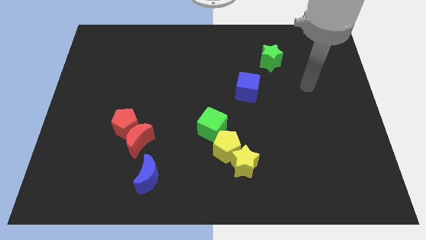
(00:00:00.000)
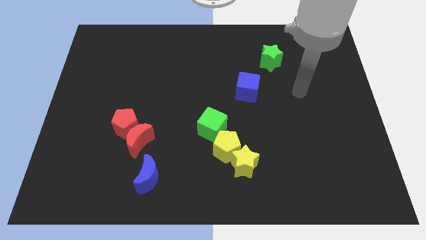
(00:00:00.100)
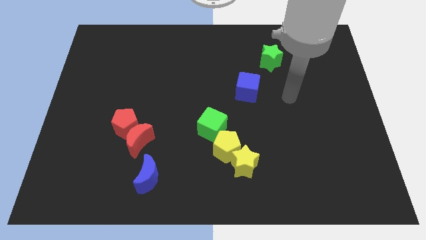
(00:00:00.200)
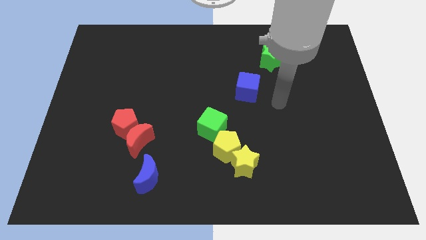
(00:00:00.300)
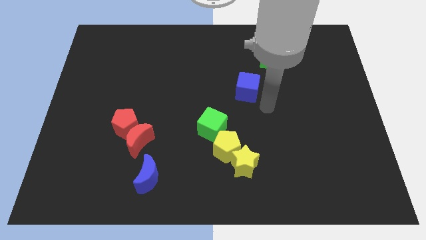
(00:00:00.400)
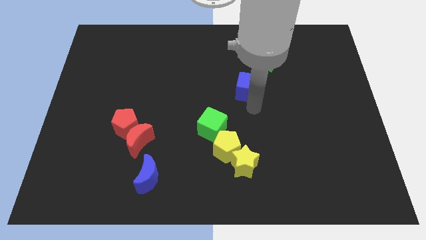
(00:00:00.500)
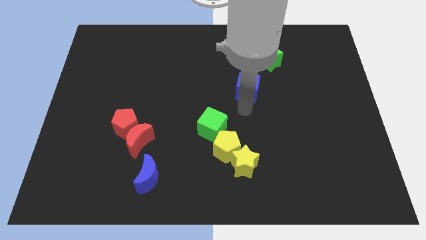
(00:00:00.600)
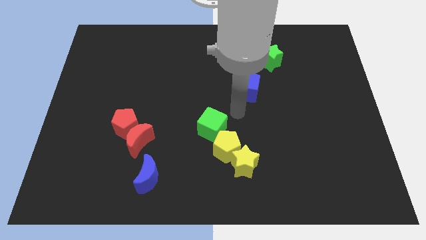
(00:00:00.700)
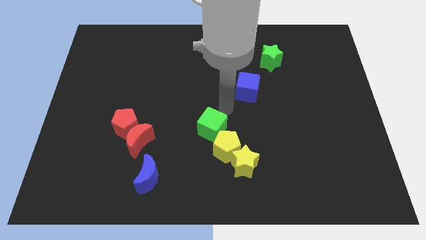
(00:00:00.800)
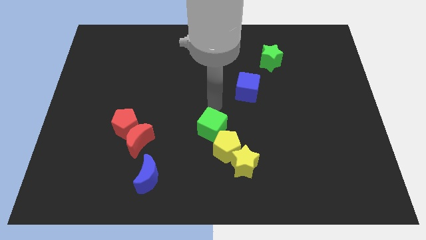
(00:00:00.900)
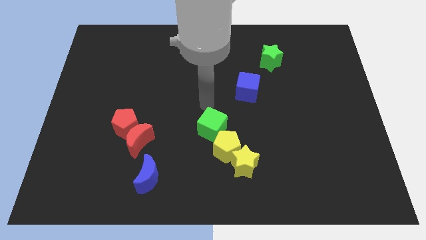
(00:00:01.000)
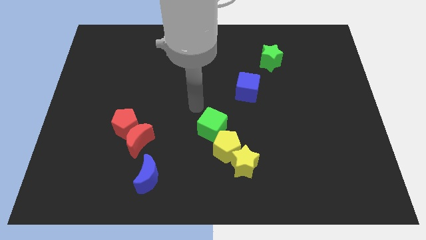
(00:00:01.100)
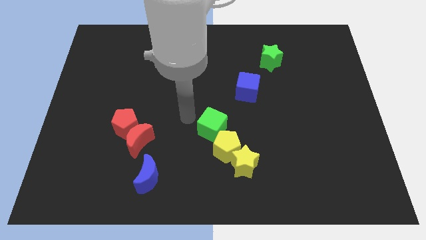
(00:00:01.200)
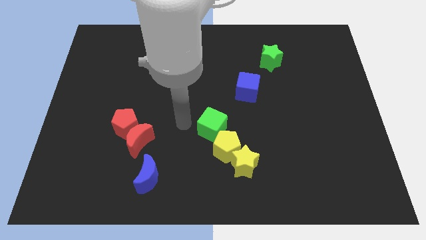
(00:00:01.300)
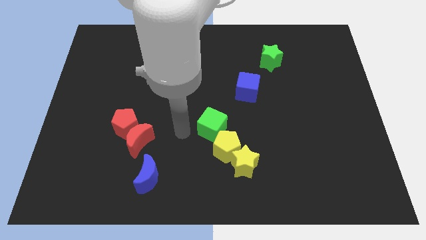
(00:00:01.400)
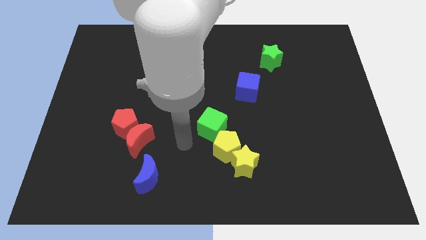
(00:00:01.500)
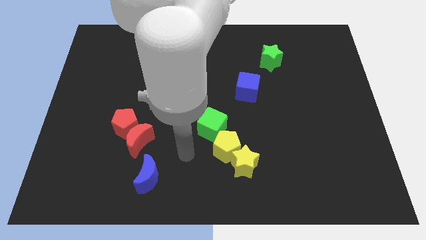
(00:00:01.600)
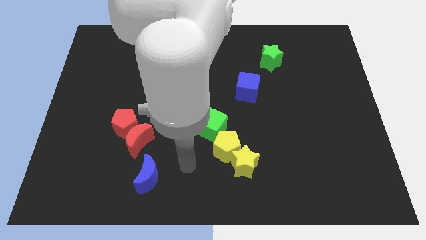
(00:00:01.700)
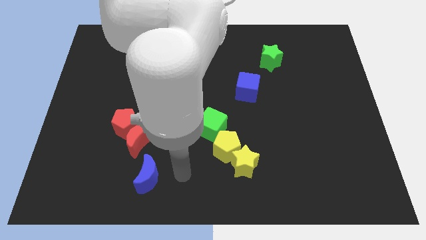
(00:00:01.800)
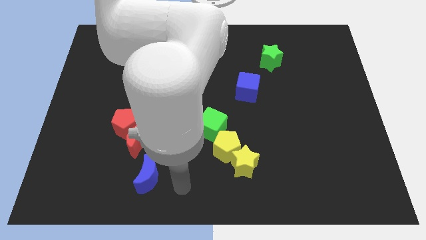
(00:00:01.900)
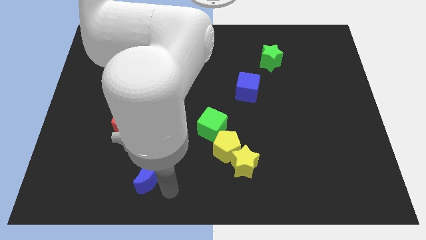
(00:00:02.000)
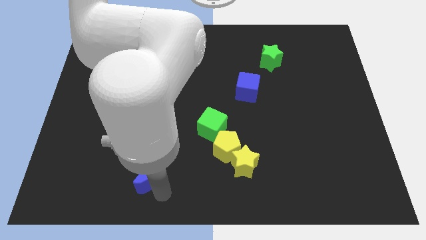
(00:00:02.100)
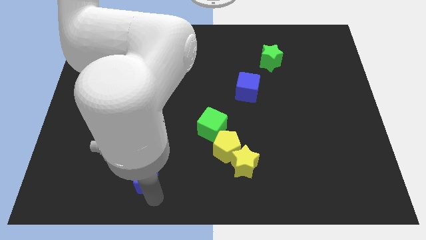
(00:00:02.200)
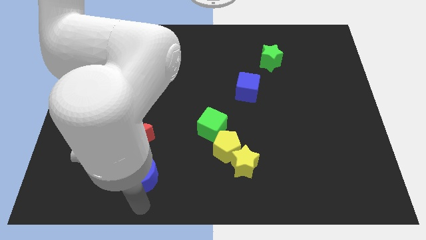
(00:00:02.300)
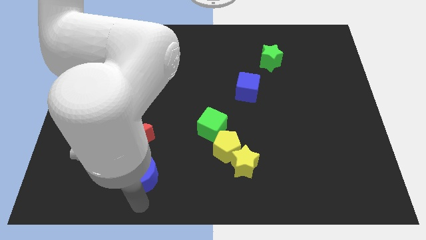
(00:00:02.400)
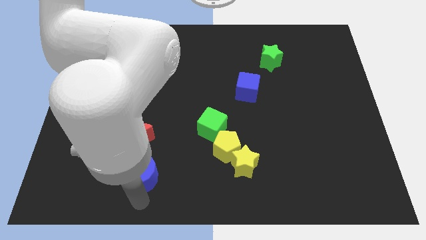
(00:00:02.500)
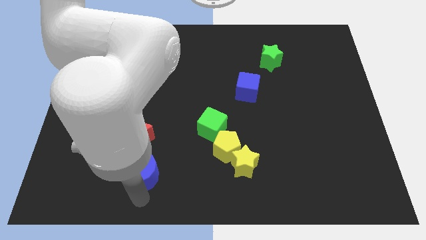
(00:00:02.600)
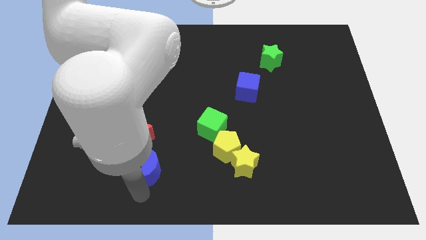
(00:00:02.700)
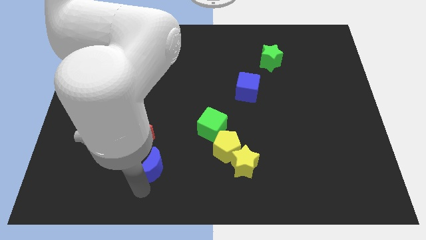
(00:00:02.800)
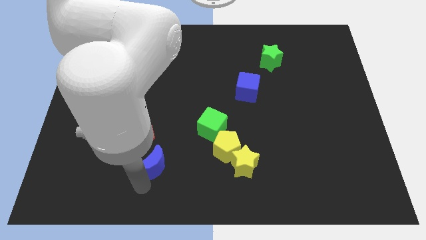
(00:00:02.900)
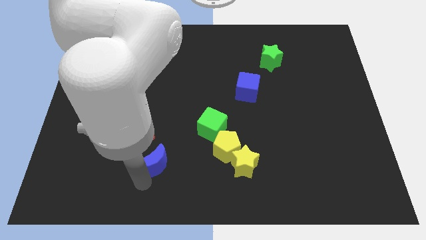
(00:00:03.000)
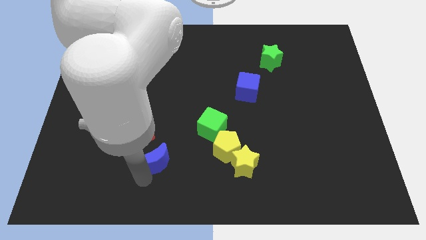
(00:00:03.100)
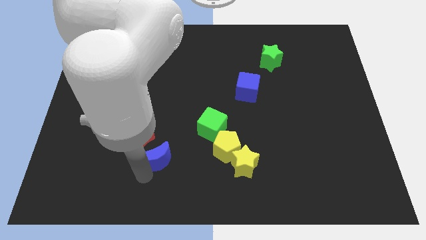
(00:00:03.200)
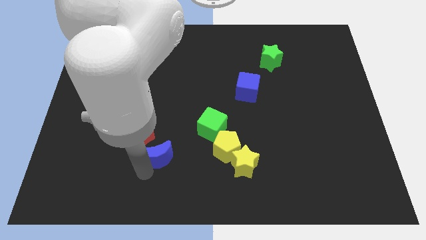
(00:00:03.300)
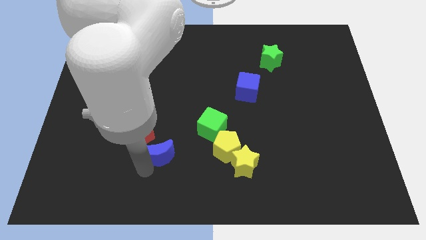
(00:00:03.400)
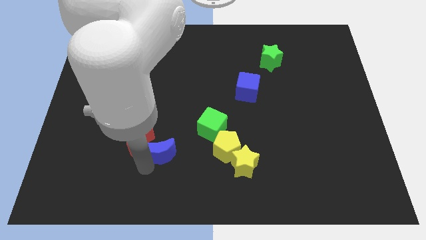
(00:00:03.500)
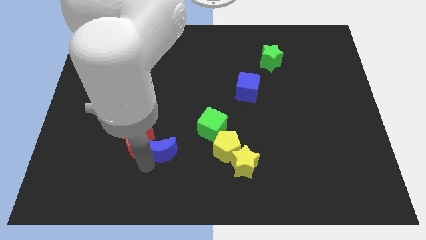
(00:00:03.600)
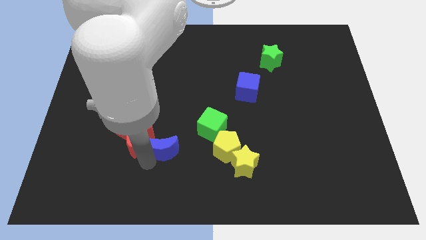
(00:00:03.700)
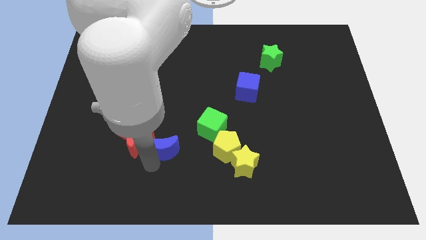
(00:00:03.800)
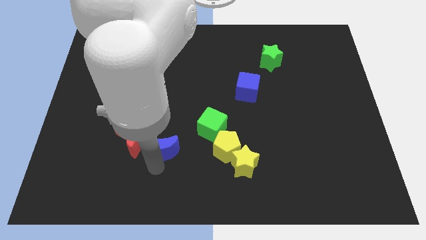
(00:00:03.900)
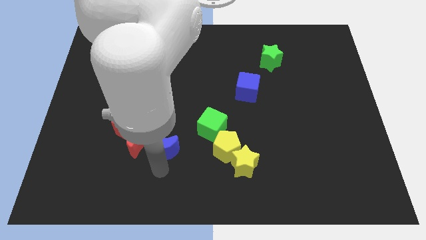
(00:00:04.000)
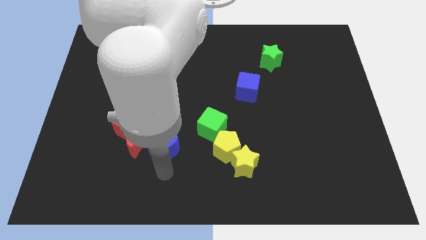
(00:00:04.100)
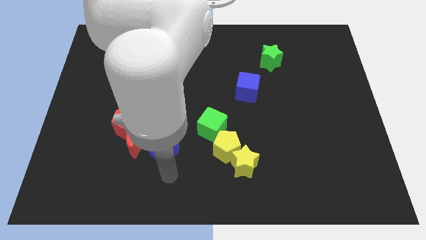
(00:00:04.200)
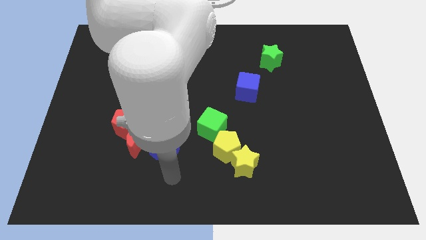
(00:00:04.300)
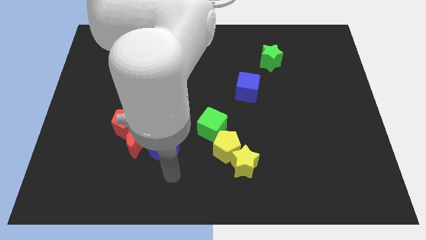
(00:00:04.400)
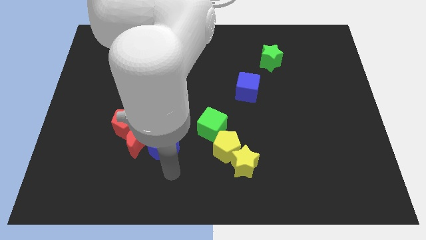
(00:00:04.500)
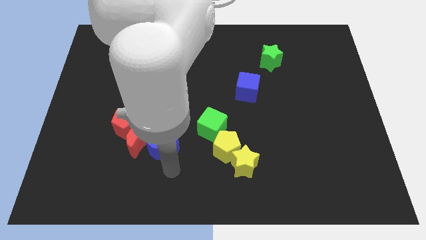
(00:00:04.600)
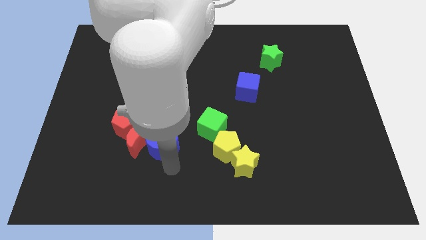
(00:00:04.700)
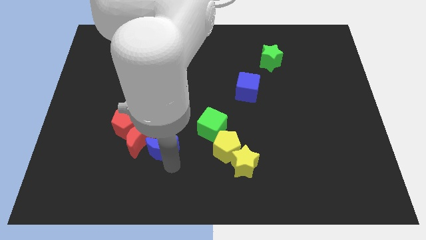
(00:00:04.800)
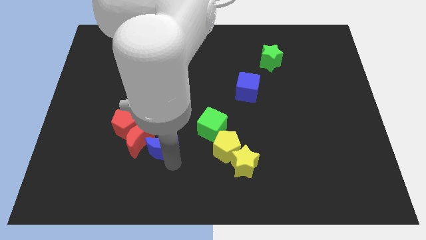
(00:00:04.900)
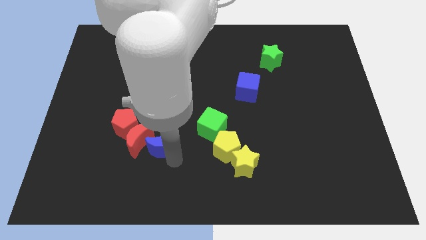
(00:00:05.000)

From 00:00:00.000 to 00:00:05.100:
push the blue moon somewhat up

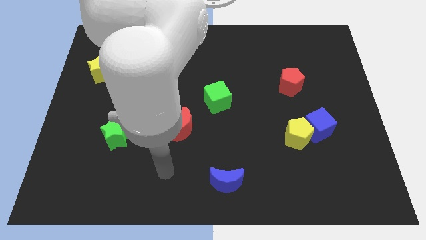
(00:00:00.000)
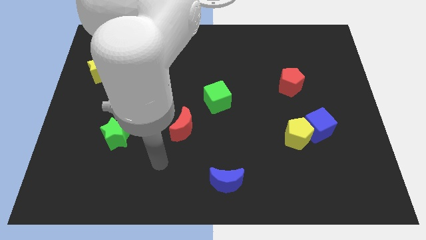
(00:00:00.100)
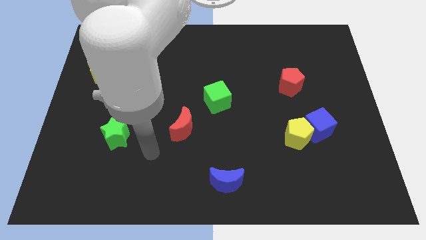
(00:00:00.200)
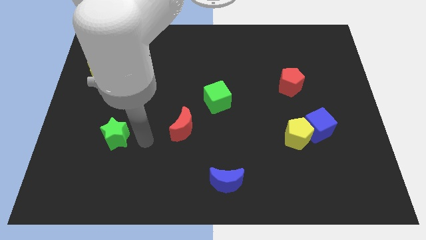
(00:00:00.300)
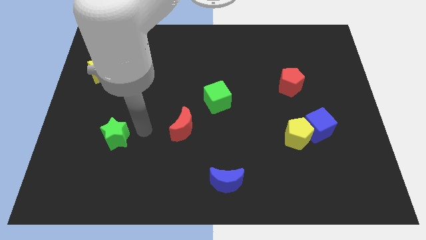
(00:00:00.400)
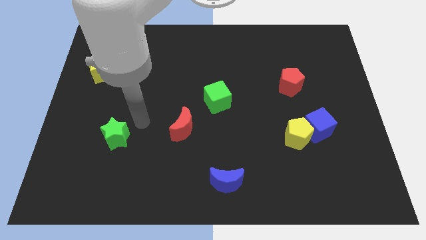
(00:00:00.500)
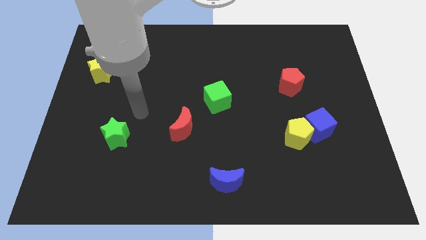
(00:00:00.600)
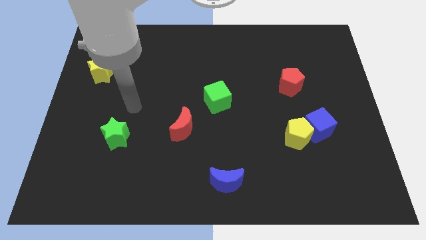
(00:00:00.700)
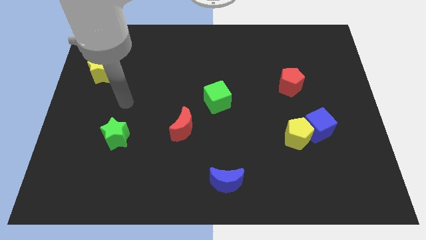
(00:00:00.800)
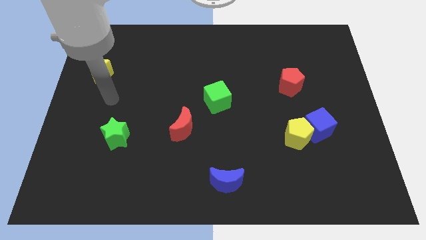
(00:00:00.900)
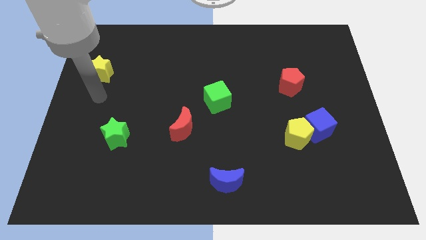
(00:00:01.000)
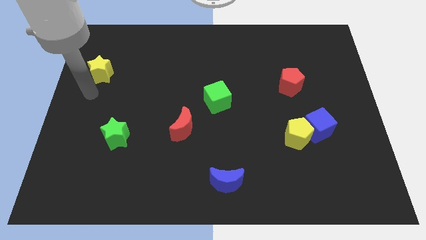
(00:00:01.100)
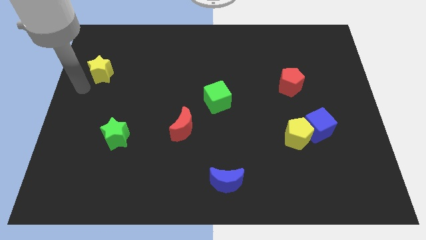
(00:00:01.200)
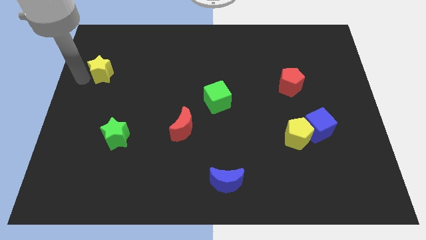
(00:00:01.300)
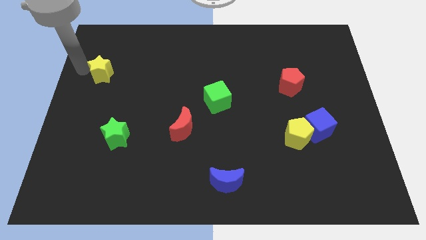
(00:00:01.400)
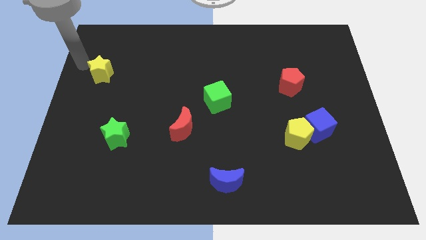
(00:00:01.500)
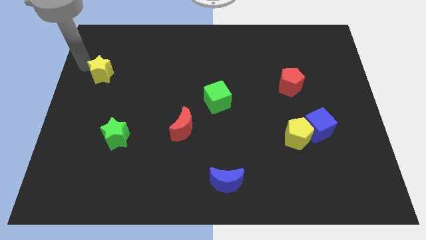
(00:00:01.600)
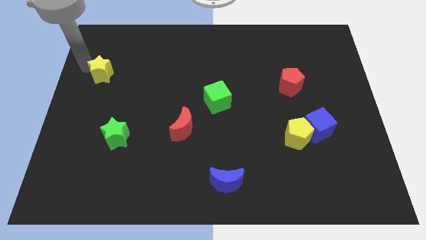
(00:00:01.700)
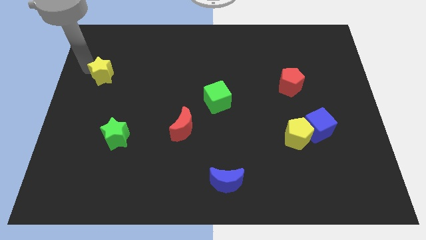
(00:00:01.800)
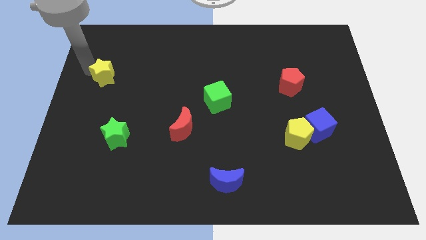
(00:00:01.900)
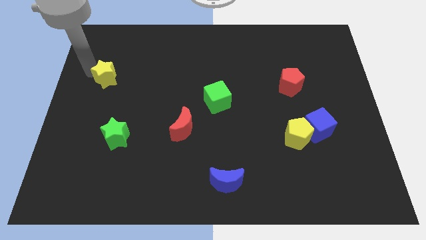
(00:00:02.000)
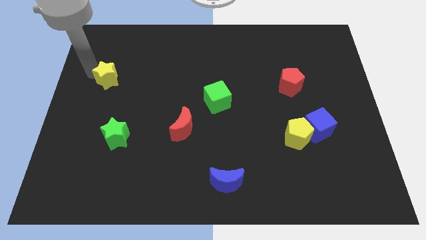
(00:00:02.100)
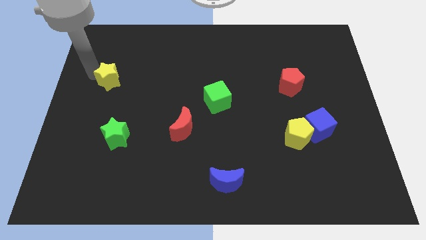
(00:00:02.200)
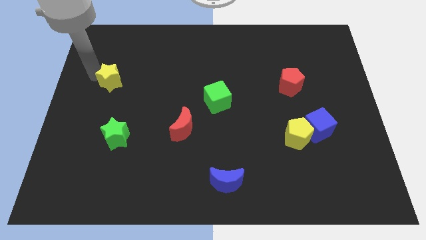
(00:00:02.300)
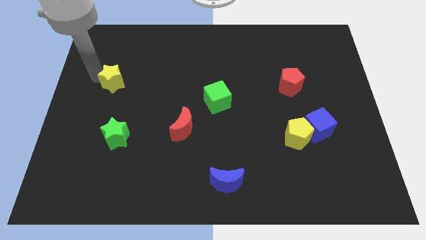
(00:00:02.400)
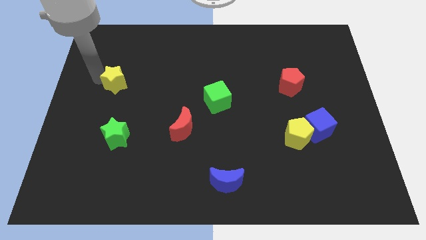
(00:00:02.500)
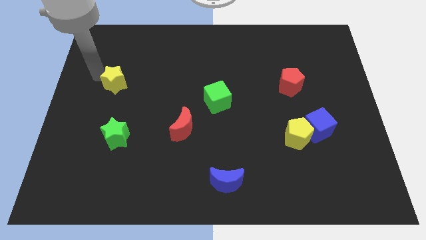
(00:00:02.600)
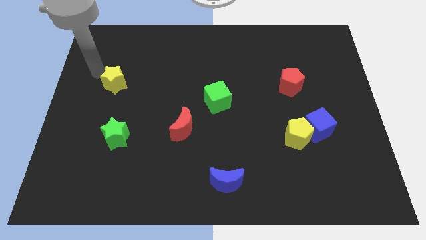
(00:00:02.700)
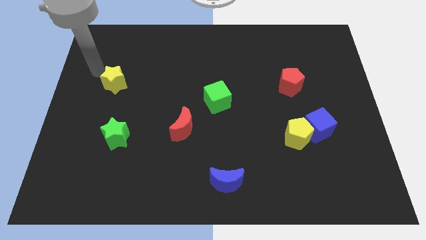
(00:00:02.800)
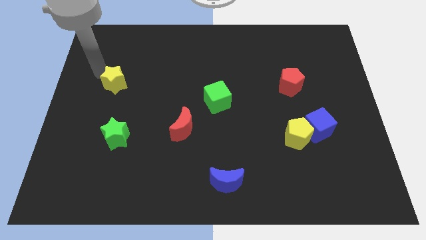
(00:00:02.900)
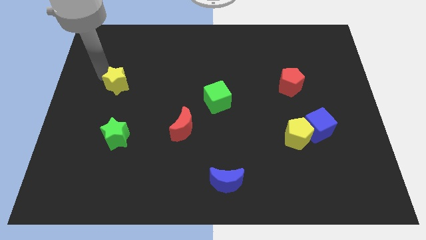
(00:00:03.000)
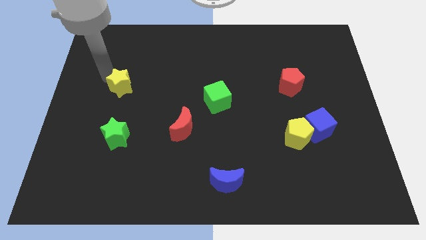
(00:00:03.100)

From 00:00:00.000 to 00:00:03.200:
slightly push the yellow star downwards and to the right

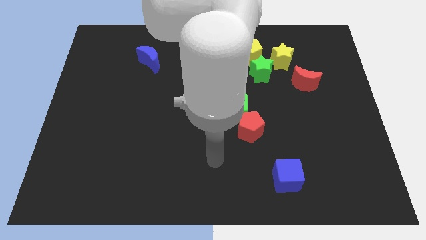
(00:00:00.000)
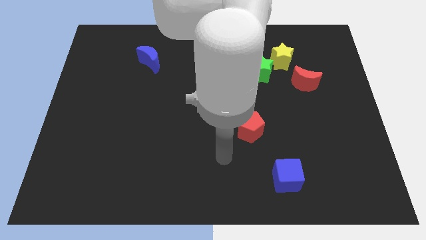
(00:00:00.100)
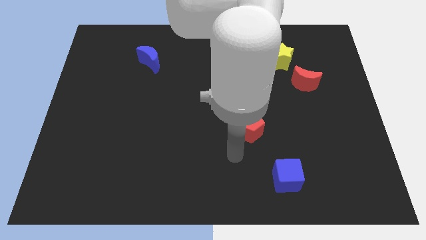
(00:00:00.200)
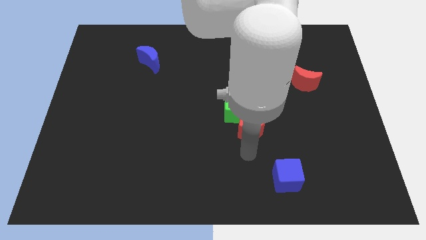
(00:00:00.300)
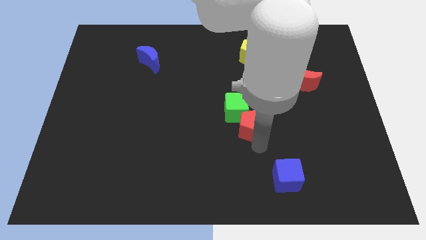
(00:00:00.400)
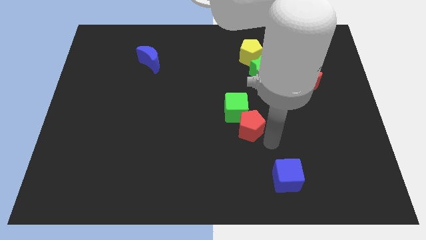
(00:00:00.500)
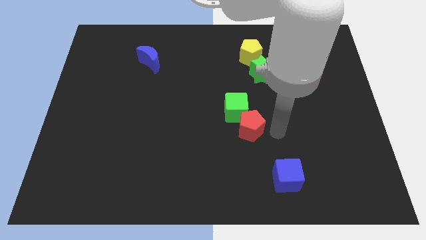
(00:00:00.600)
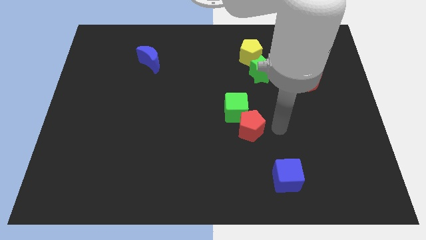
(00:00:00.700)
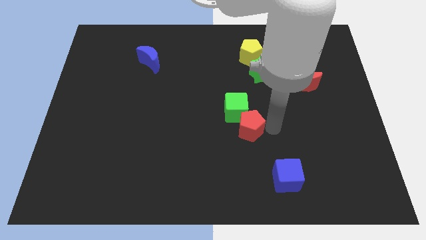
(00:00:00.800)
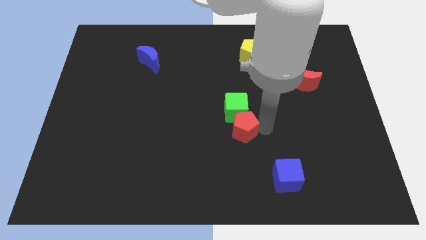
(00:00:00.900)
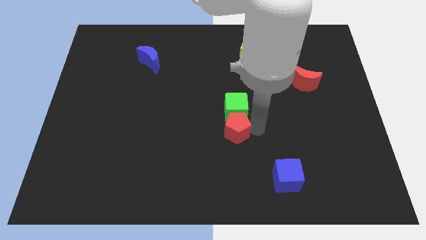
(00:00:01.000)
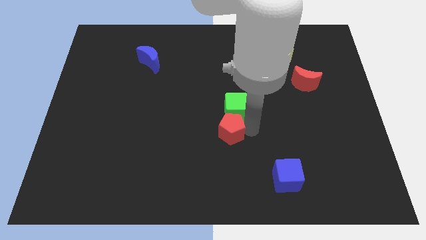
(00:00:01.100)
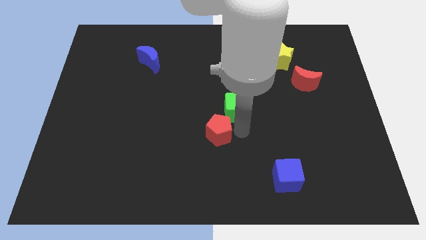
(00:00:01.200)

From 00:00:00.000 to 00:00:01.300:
push the red pentagon left a little bit
